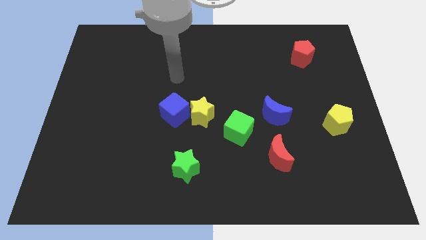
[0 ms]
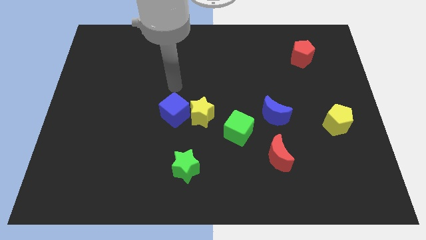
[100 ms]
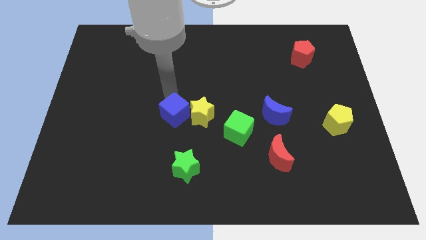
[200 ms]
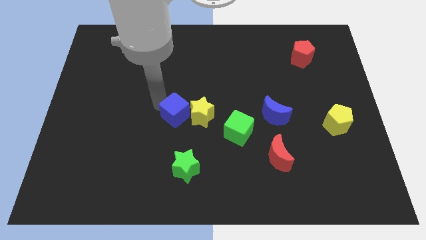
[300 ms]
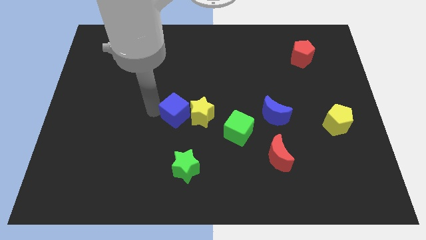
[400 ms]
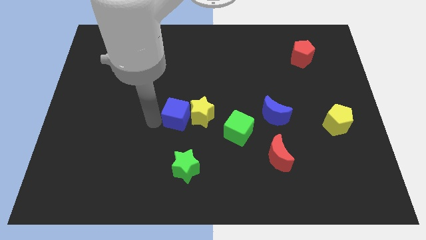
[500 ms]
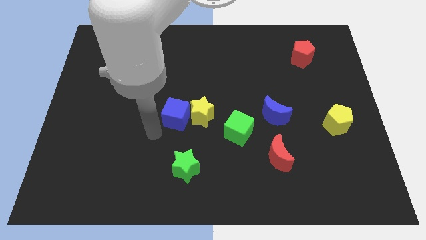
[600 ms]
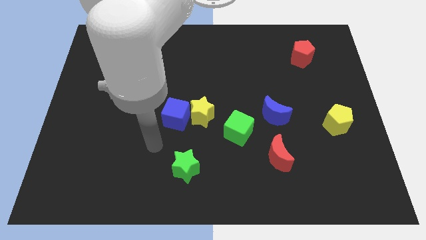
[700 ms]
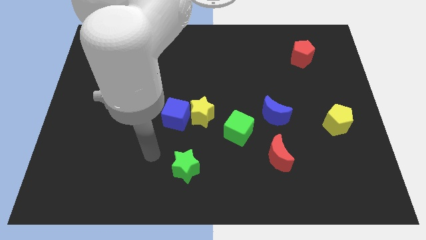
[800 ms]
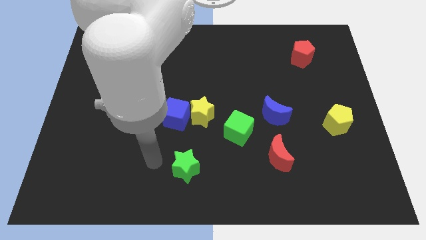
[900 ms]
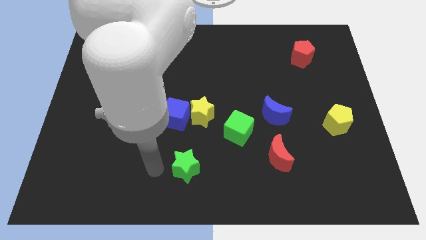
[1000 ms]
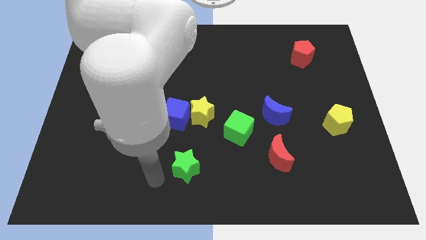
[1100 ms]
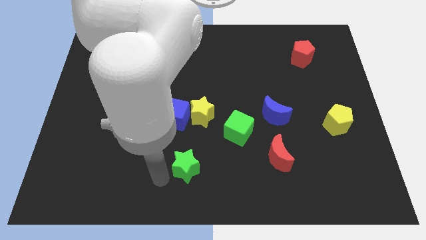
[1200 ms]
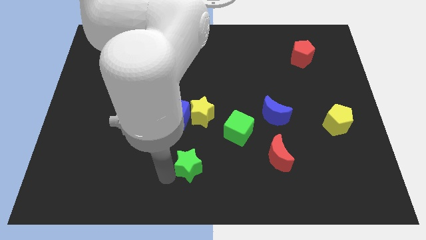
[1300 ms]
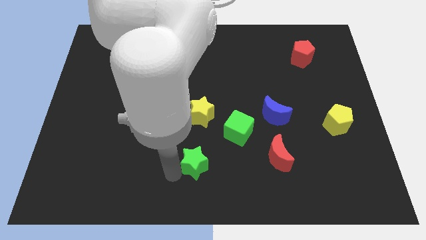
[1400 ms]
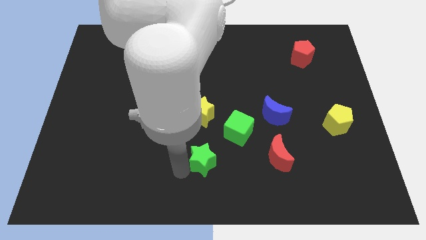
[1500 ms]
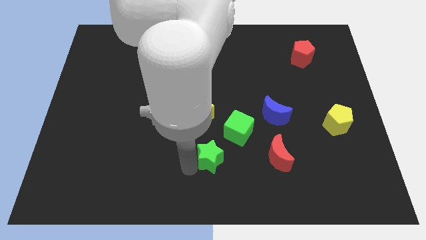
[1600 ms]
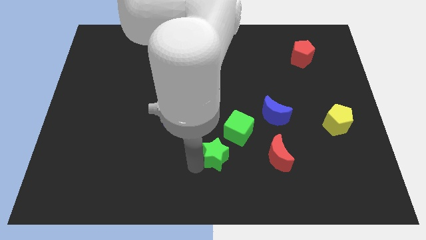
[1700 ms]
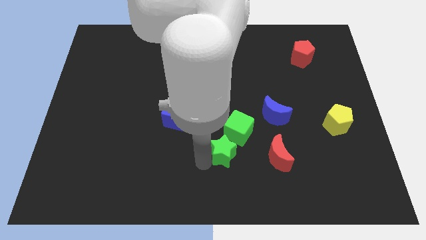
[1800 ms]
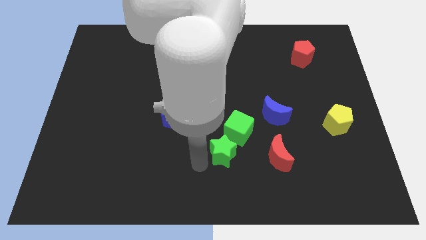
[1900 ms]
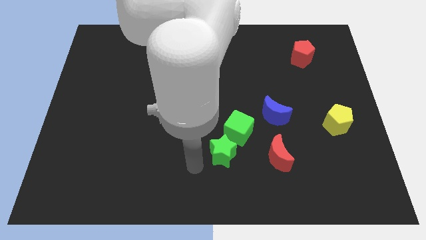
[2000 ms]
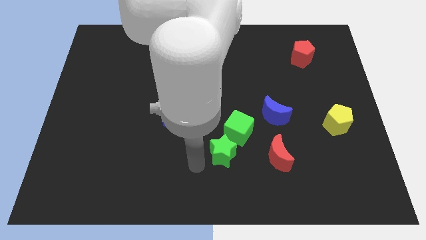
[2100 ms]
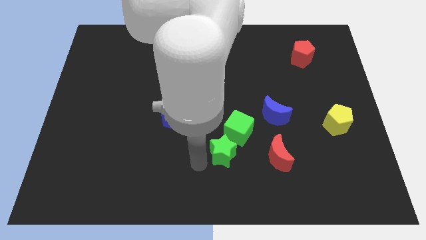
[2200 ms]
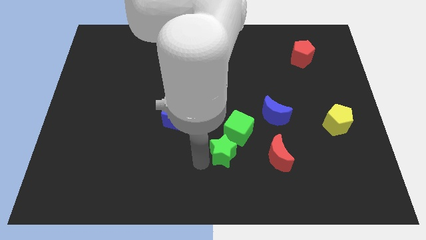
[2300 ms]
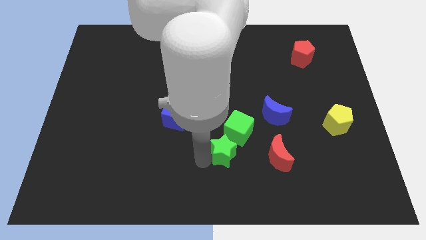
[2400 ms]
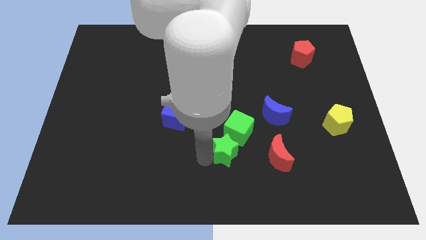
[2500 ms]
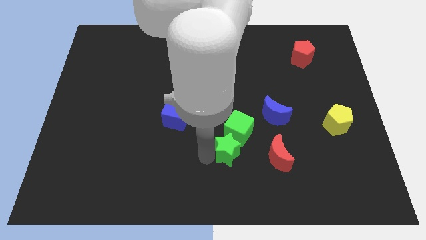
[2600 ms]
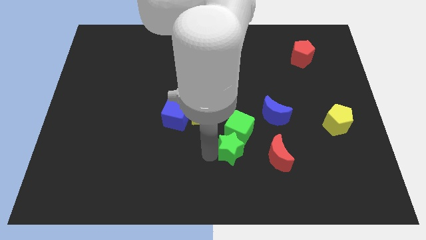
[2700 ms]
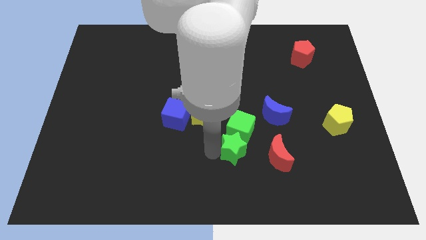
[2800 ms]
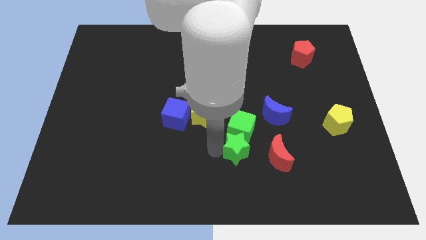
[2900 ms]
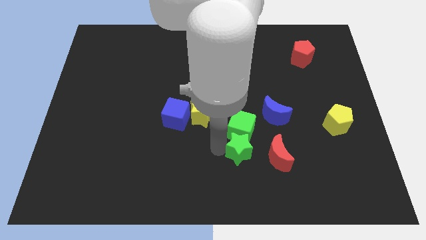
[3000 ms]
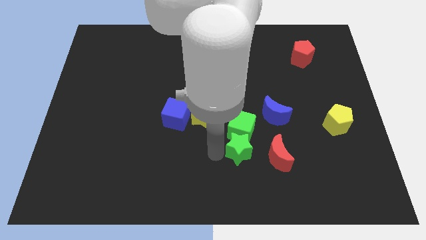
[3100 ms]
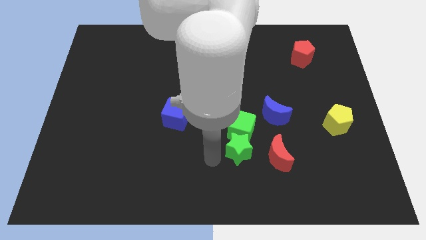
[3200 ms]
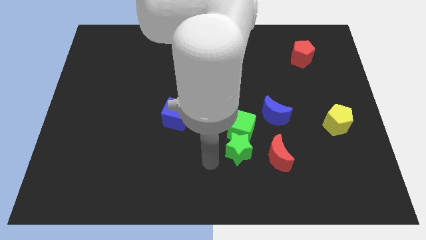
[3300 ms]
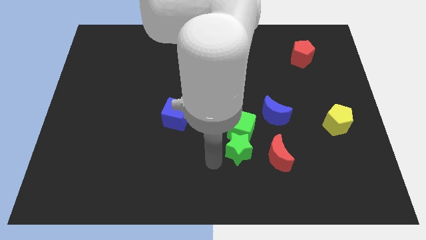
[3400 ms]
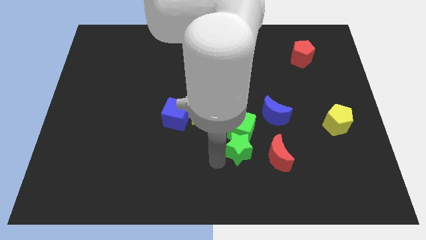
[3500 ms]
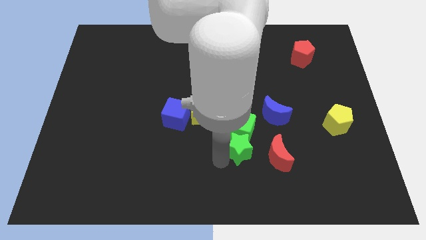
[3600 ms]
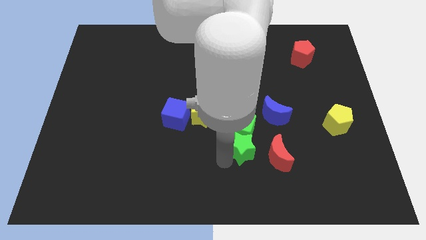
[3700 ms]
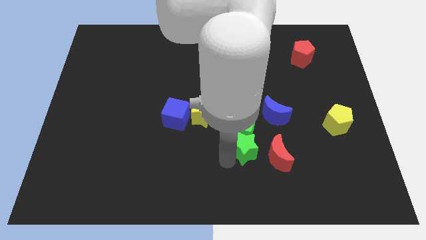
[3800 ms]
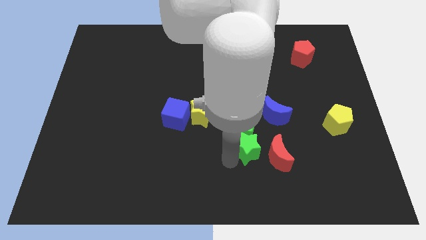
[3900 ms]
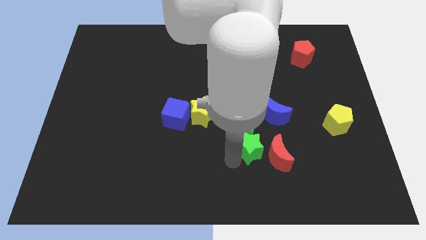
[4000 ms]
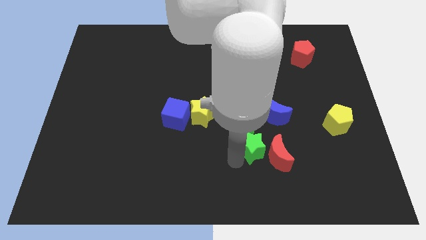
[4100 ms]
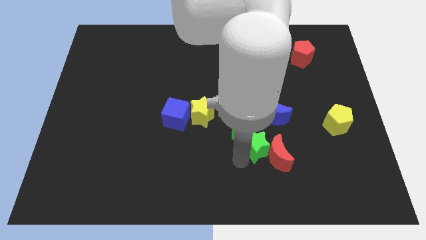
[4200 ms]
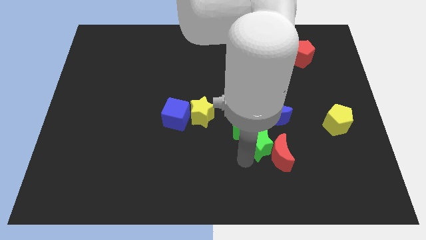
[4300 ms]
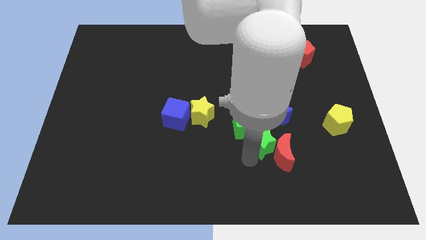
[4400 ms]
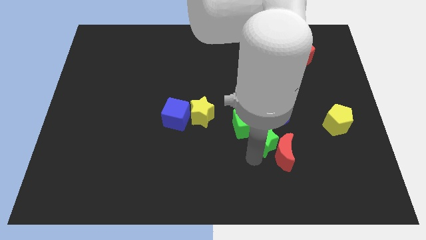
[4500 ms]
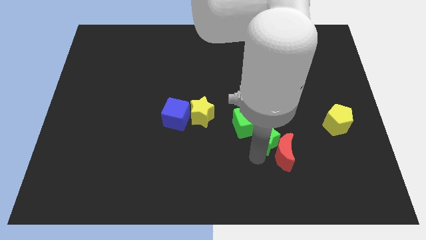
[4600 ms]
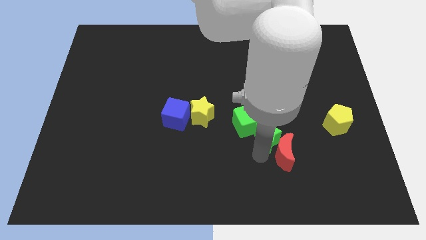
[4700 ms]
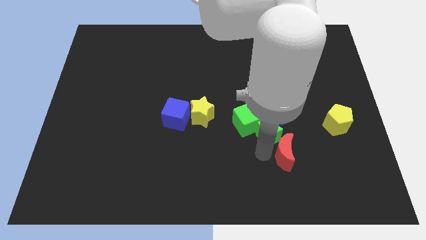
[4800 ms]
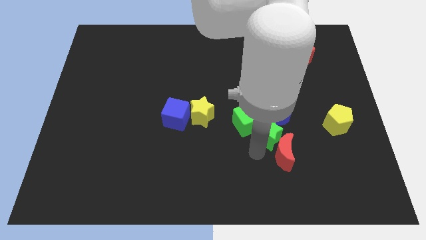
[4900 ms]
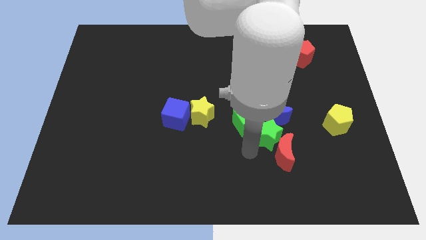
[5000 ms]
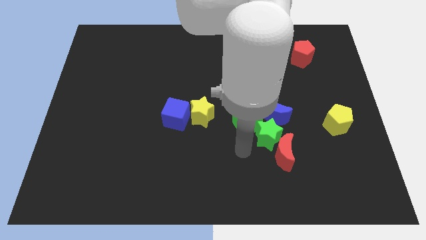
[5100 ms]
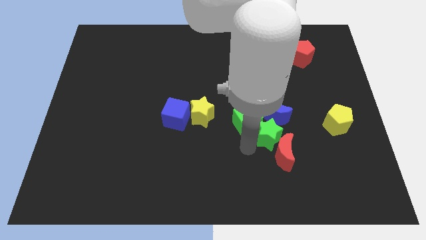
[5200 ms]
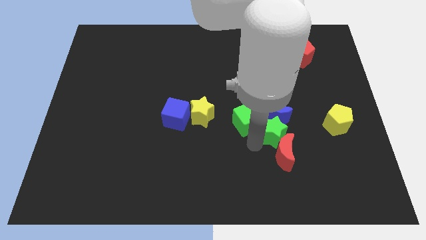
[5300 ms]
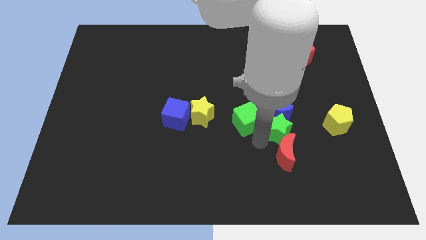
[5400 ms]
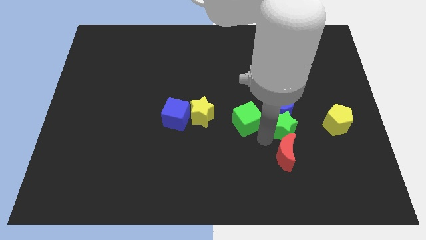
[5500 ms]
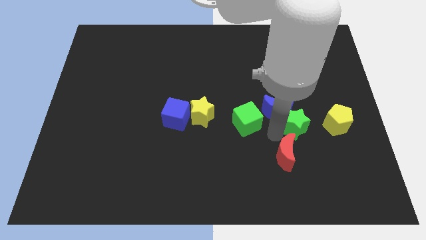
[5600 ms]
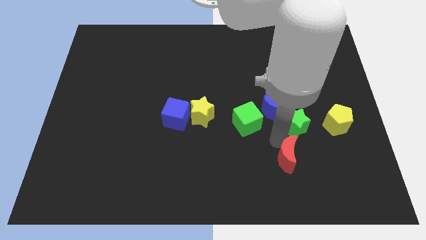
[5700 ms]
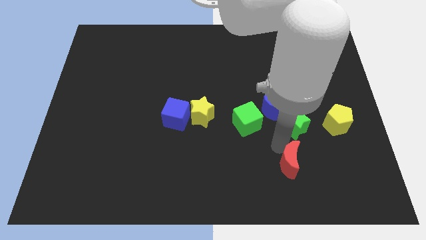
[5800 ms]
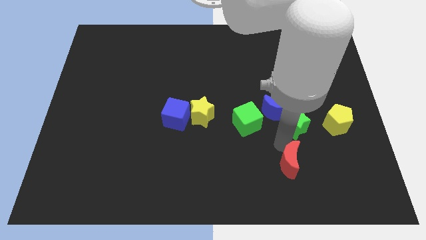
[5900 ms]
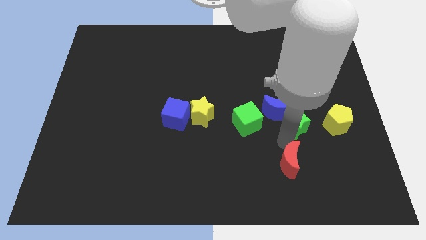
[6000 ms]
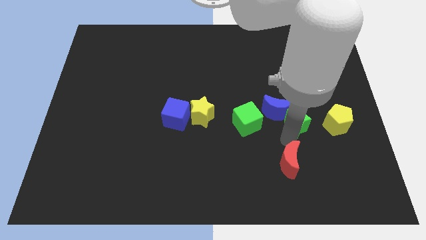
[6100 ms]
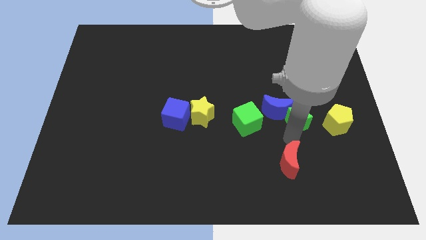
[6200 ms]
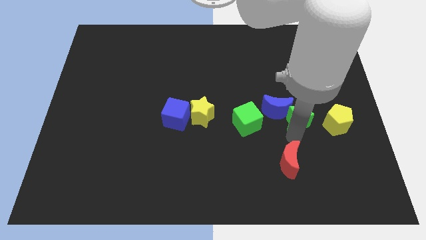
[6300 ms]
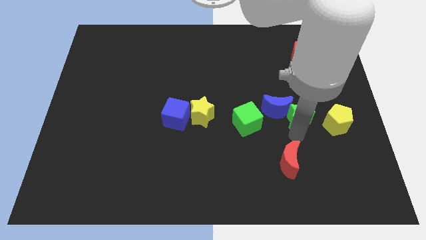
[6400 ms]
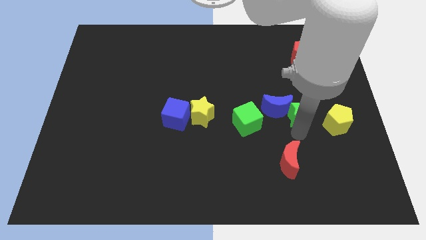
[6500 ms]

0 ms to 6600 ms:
move the green star to the top left side of the yellow pentagon

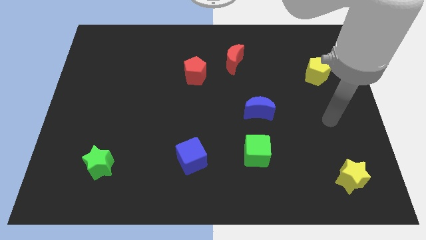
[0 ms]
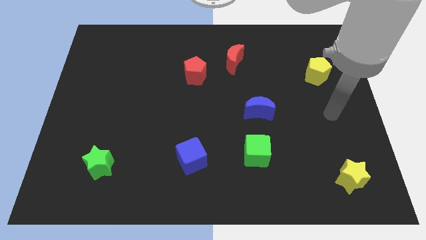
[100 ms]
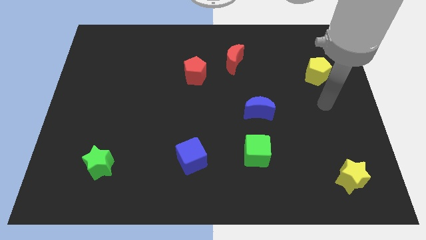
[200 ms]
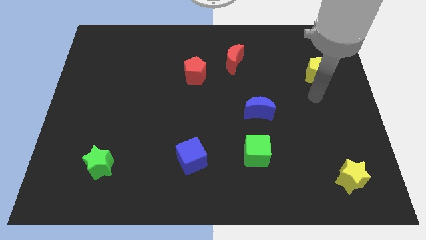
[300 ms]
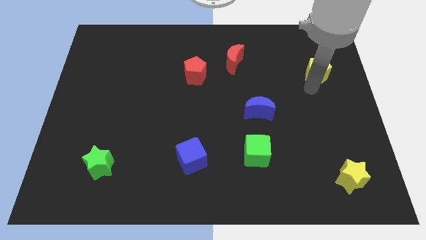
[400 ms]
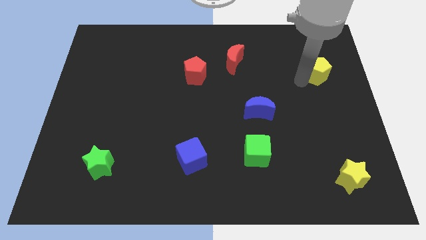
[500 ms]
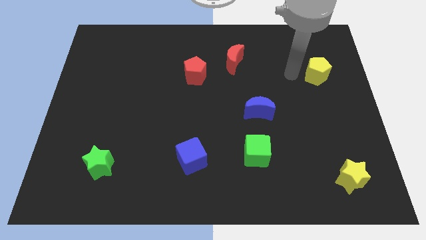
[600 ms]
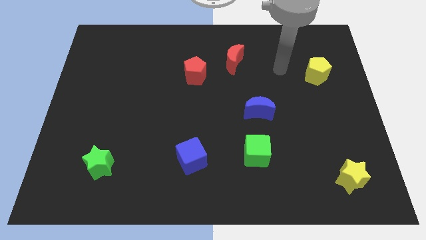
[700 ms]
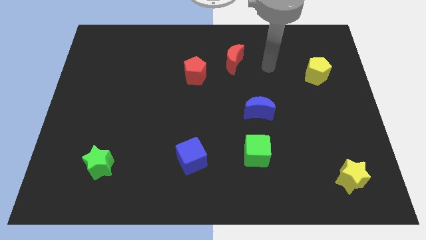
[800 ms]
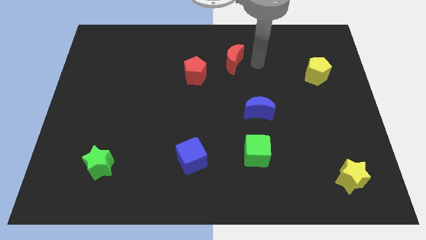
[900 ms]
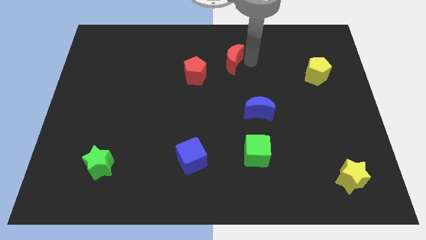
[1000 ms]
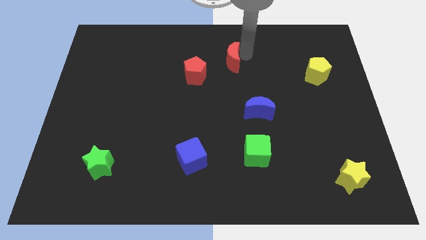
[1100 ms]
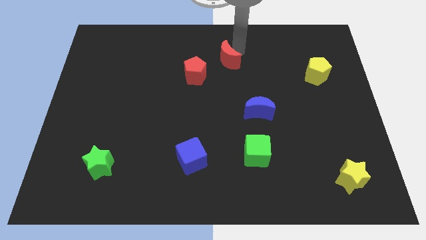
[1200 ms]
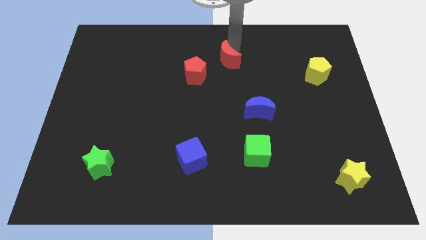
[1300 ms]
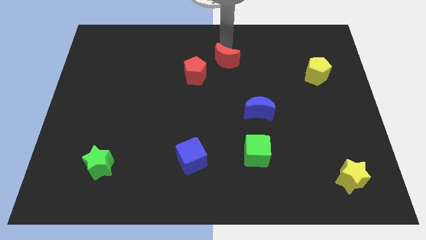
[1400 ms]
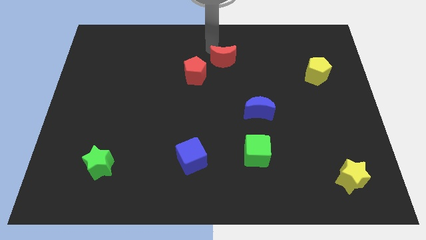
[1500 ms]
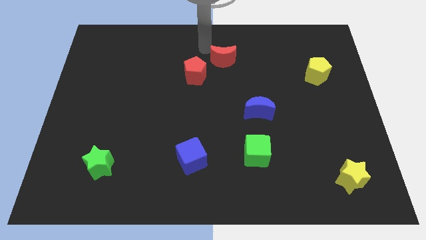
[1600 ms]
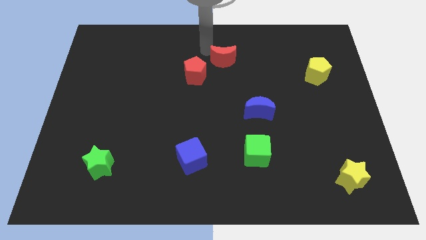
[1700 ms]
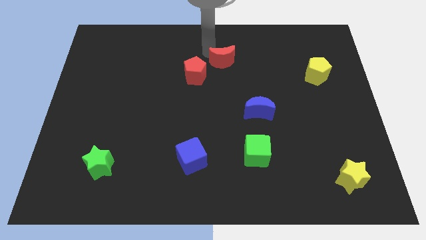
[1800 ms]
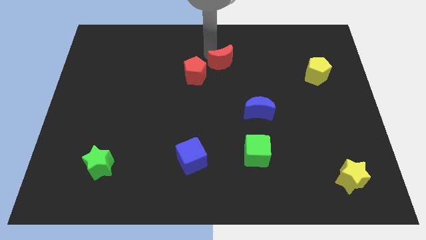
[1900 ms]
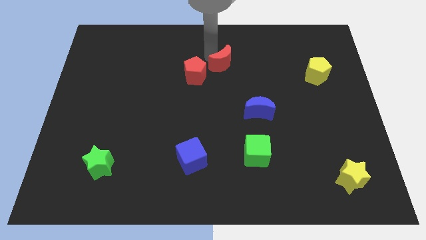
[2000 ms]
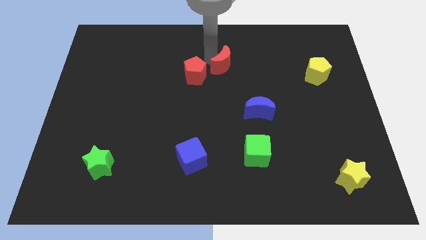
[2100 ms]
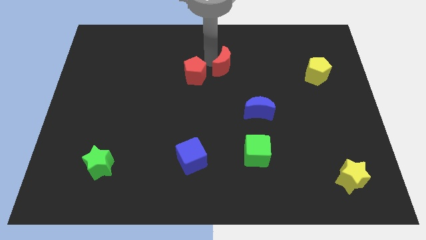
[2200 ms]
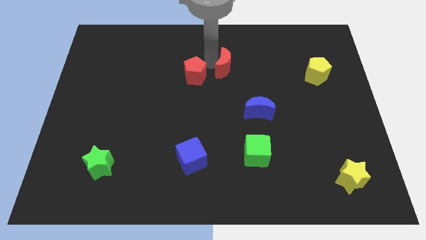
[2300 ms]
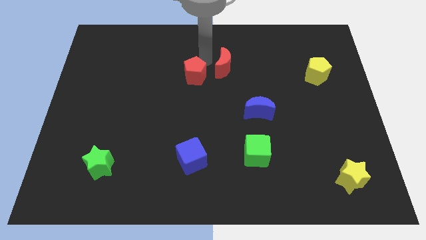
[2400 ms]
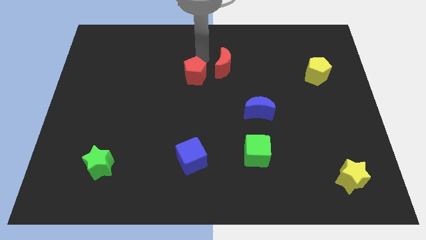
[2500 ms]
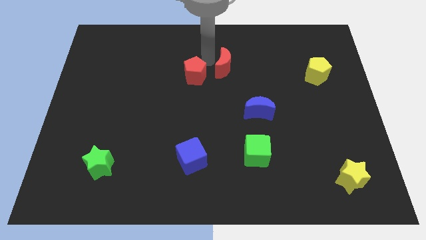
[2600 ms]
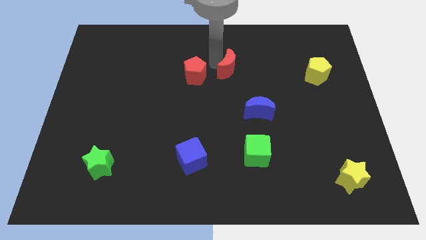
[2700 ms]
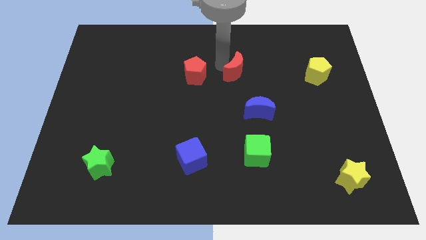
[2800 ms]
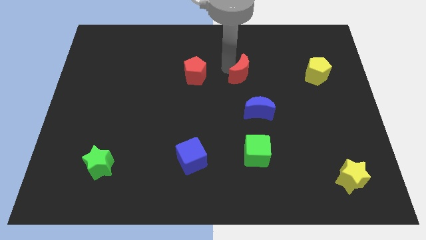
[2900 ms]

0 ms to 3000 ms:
put the red moon to the top of the blue moon
